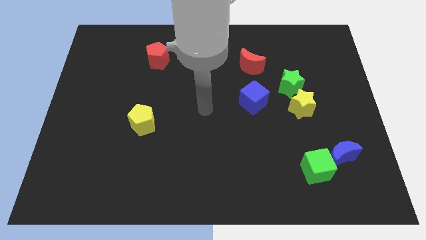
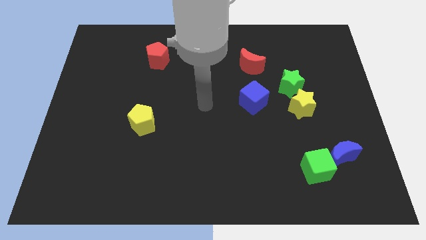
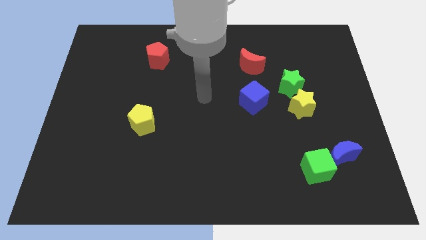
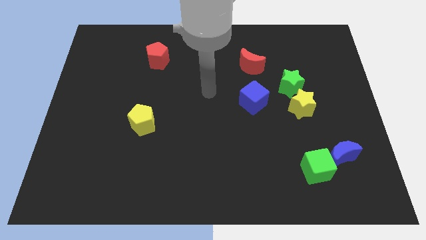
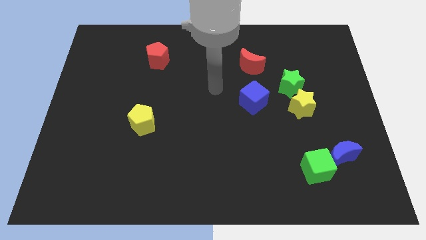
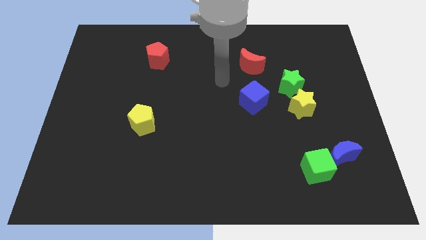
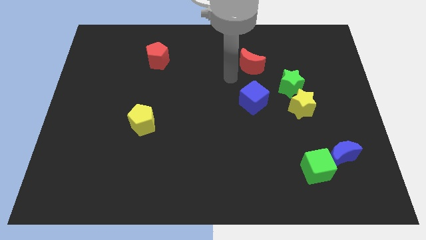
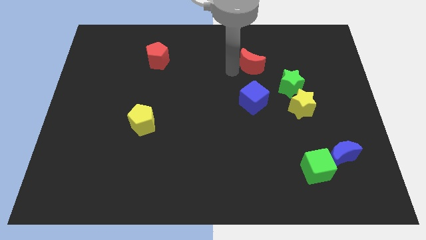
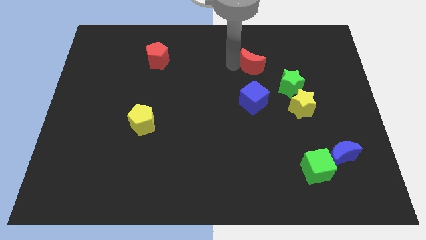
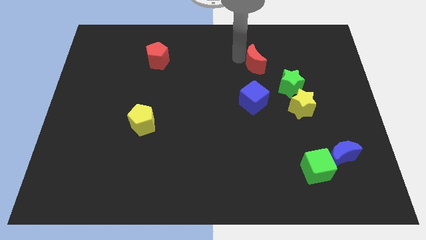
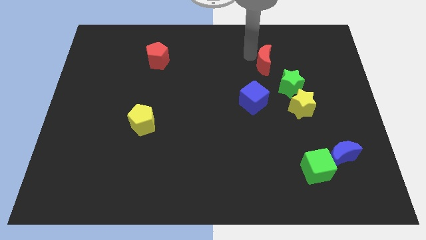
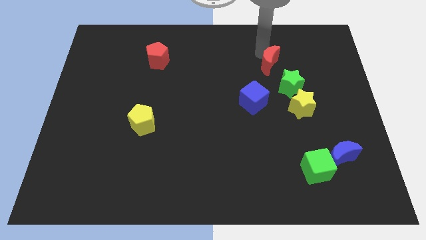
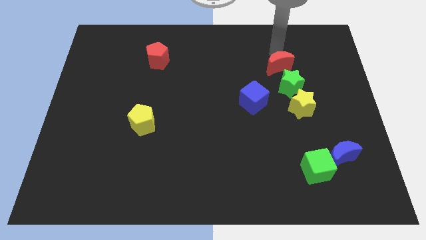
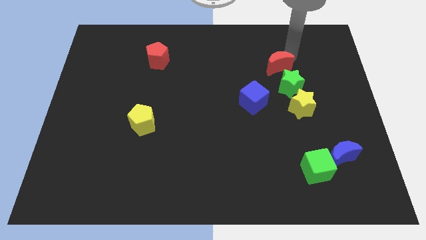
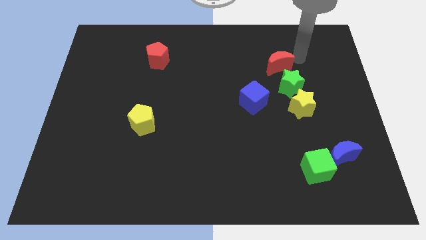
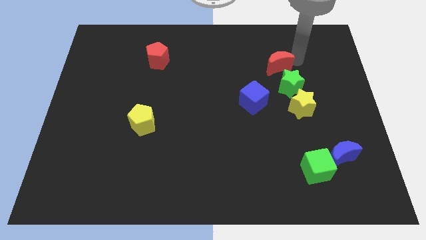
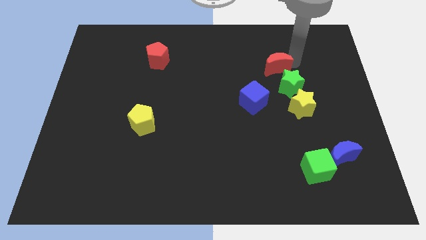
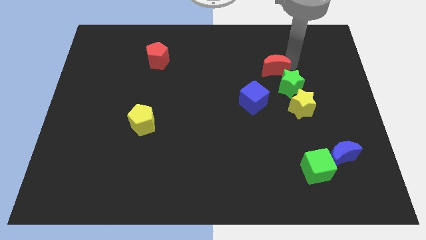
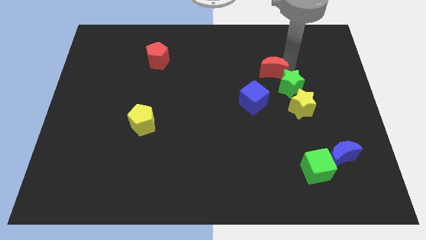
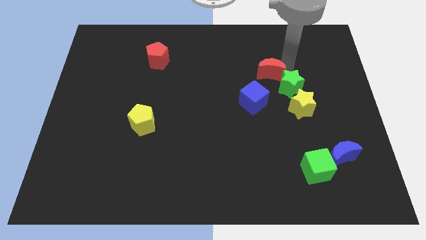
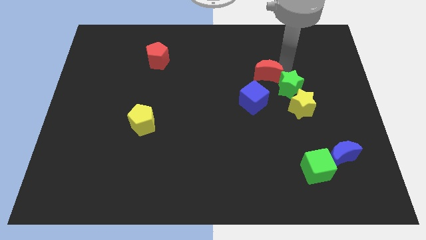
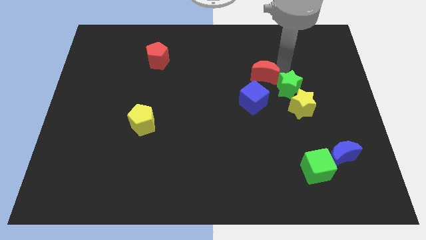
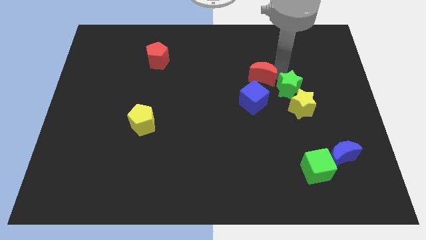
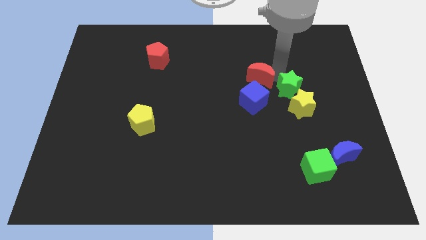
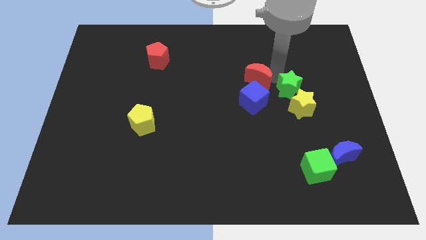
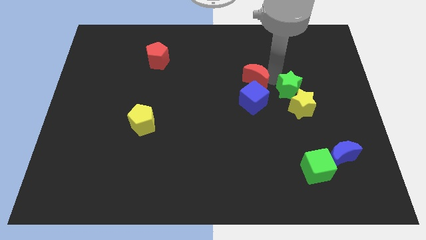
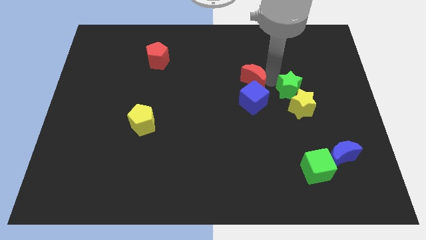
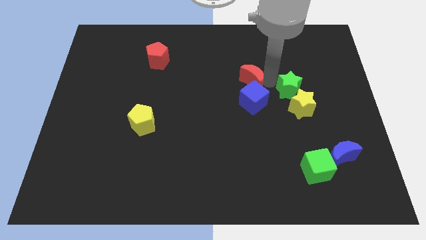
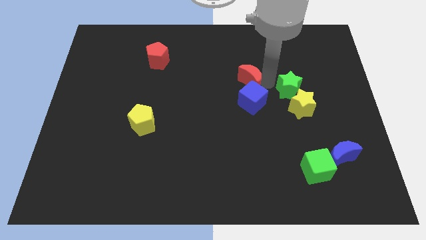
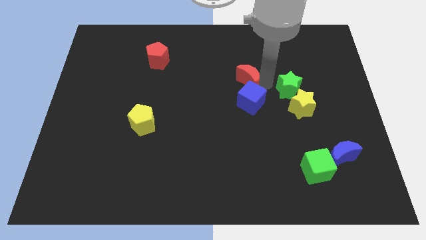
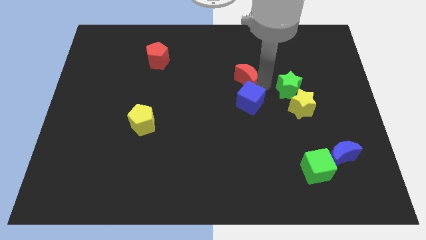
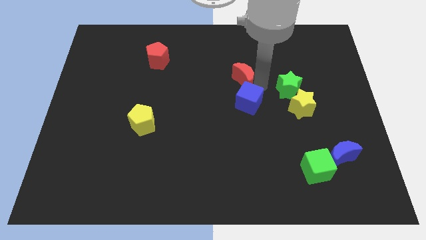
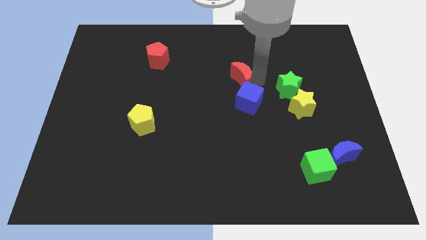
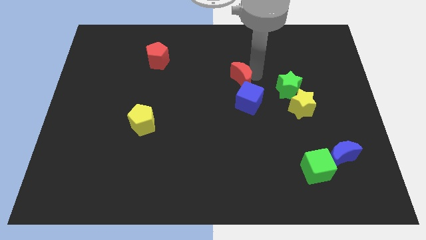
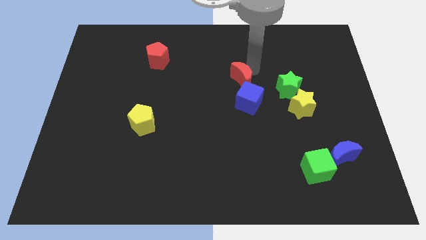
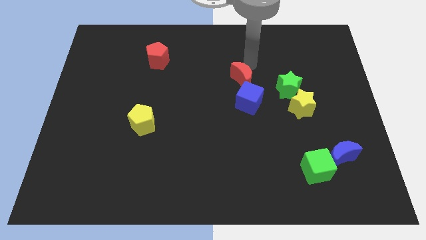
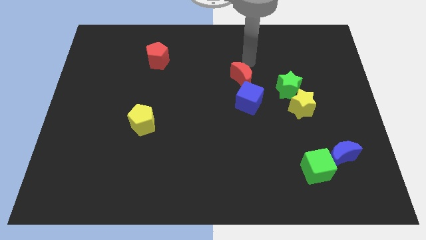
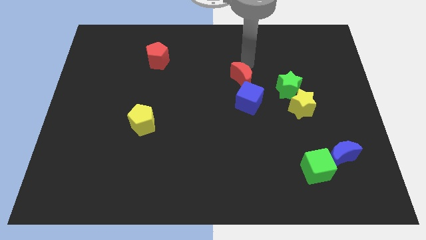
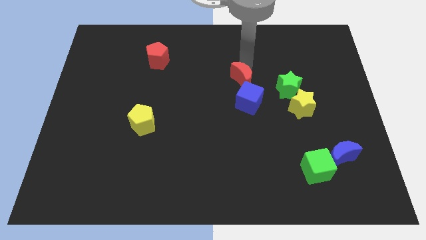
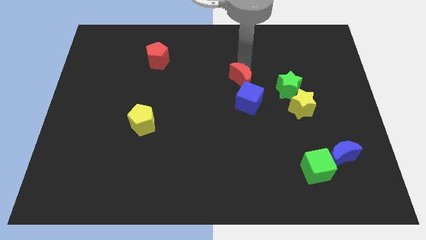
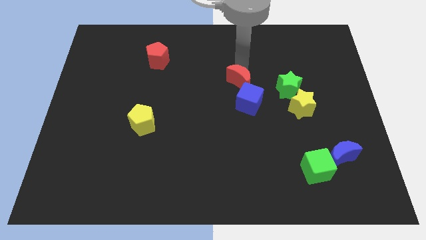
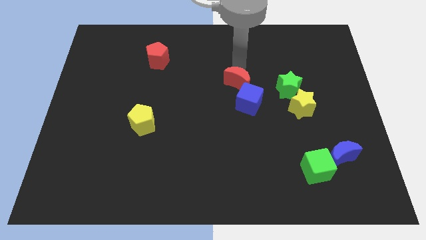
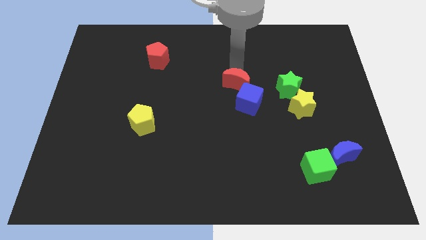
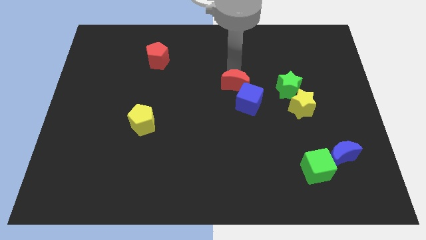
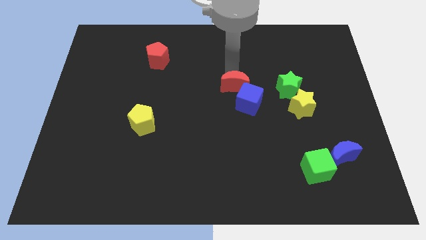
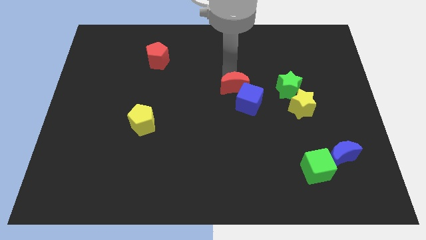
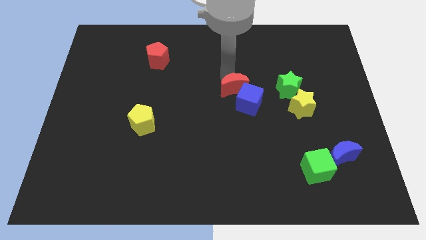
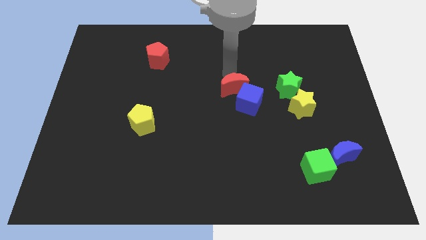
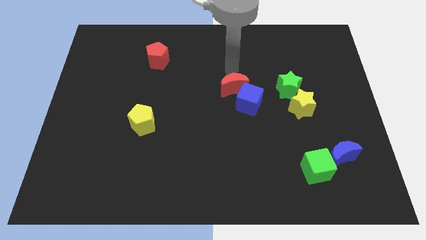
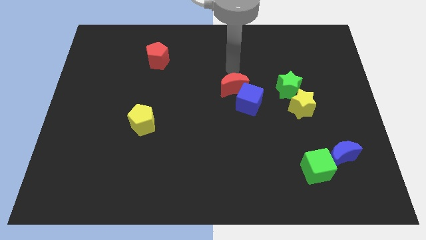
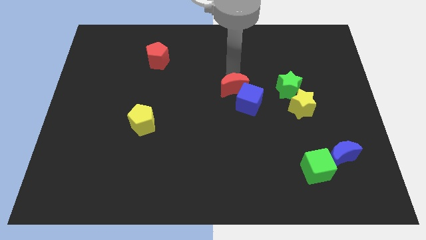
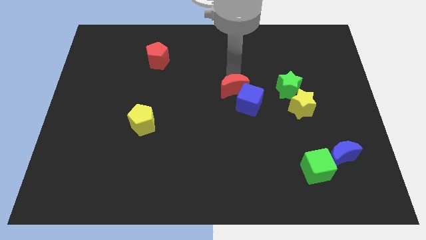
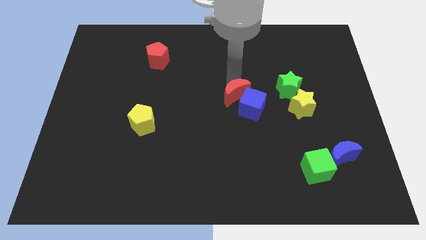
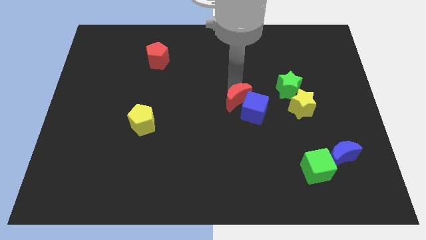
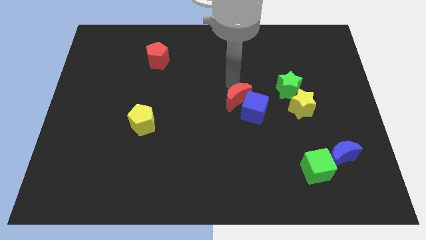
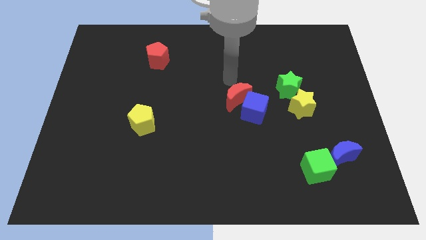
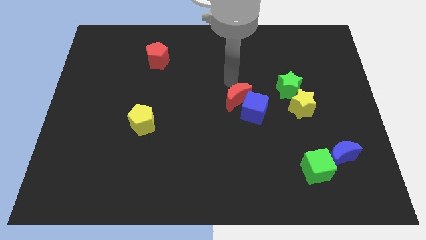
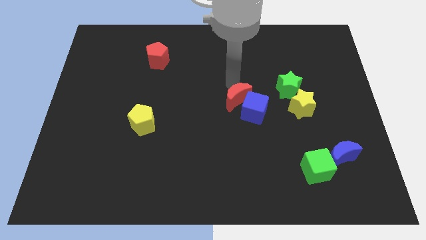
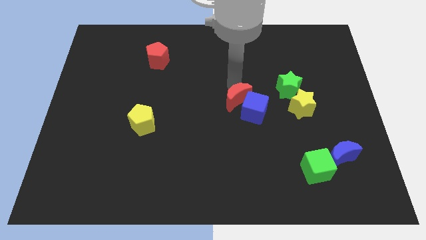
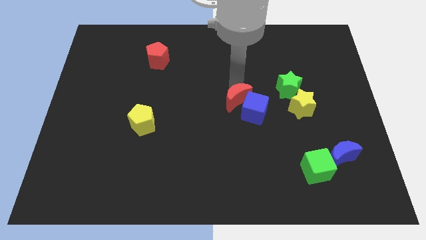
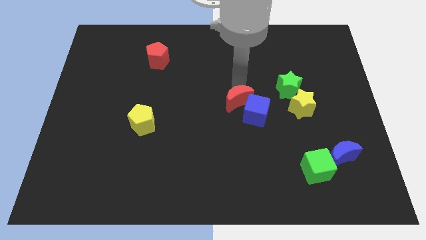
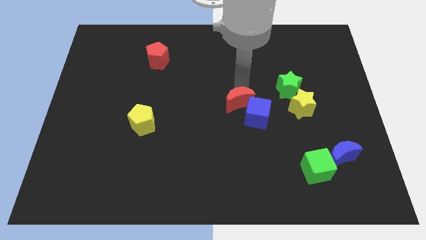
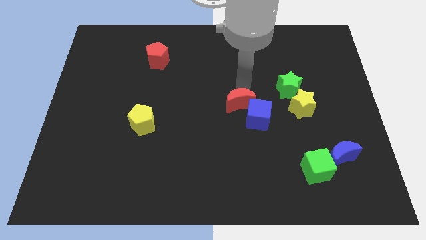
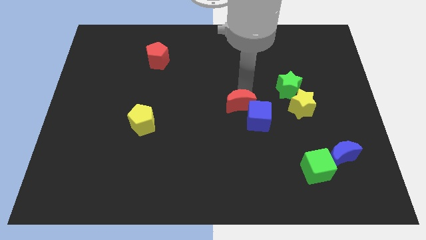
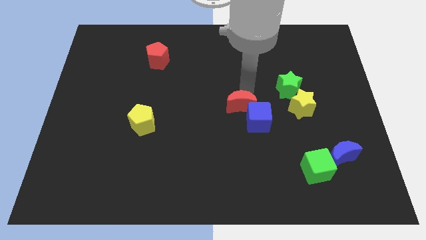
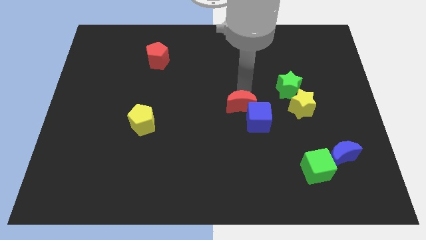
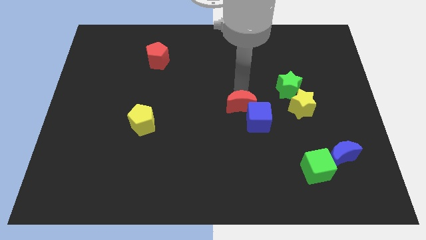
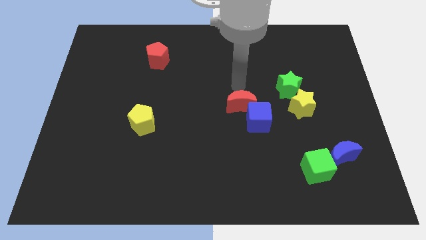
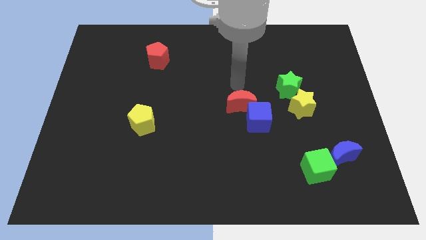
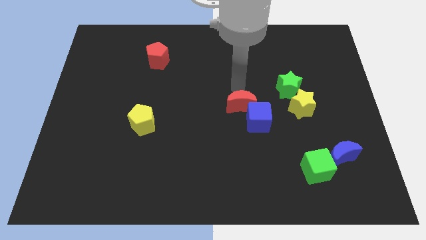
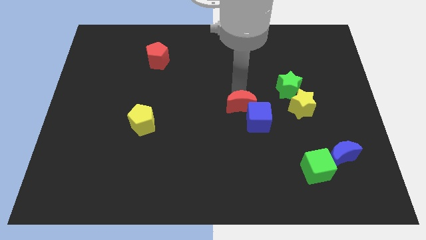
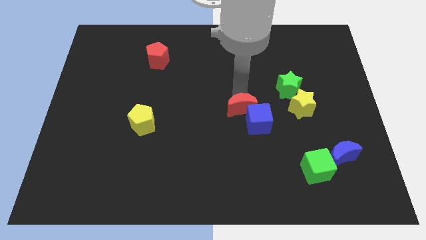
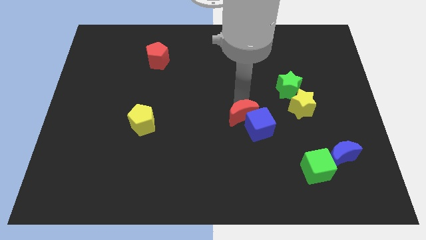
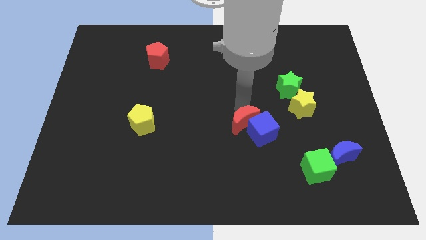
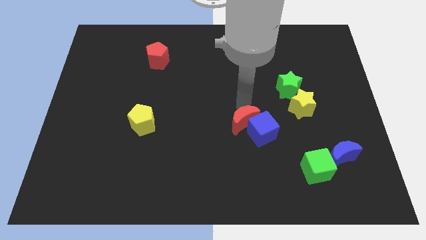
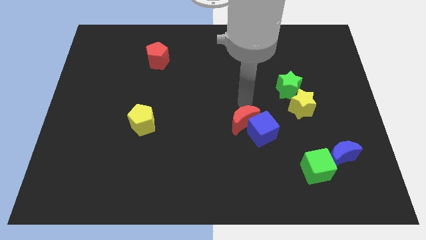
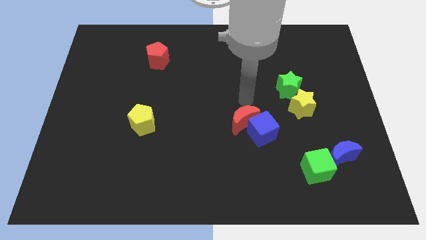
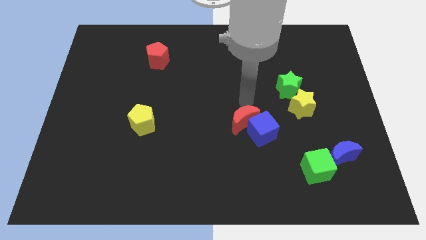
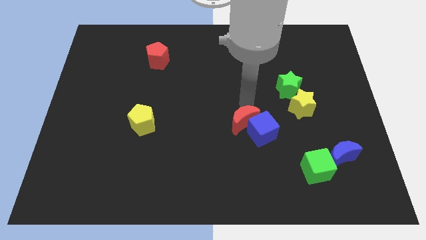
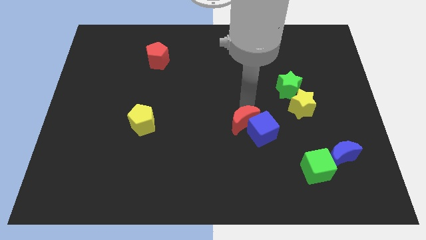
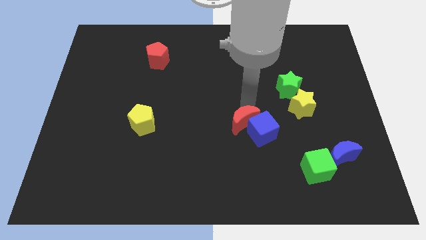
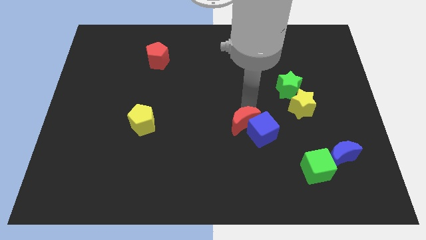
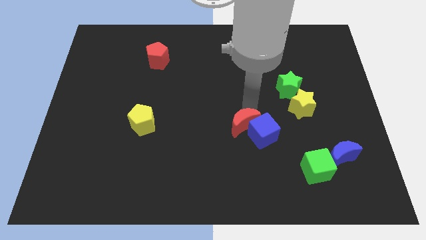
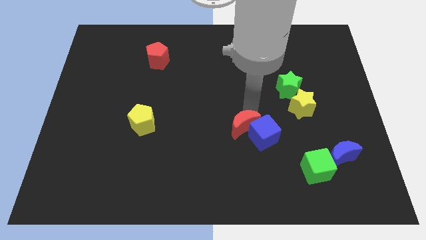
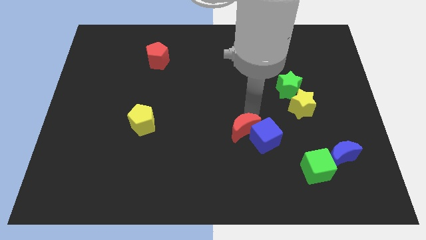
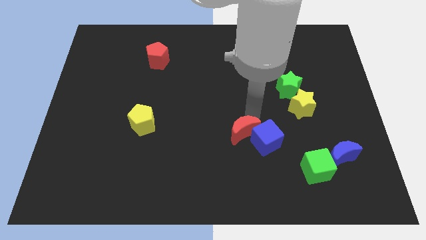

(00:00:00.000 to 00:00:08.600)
push the red moon down
